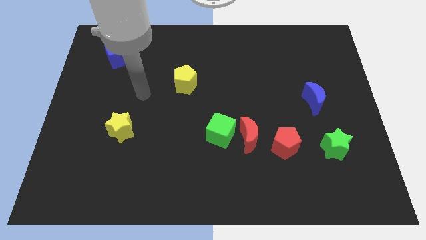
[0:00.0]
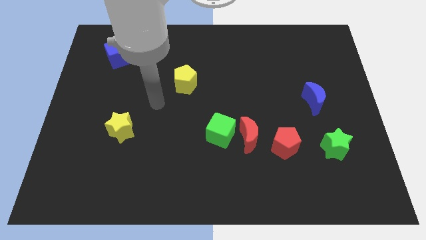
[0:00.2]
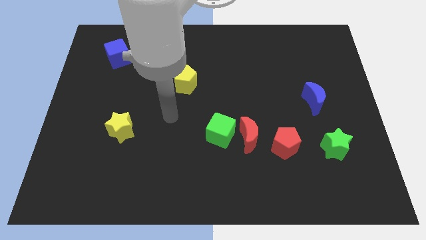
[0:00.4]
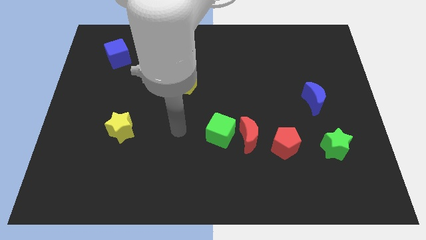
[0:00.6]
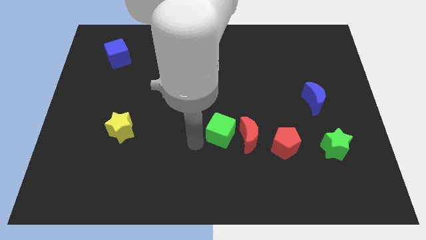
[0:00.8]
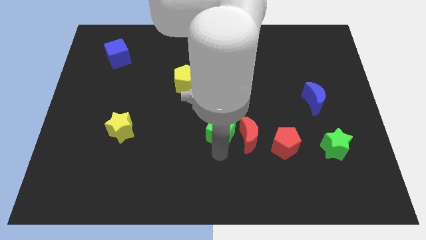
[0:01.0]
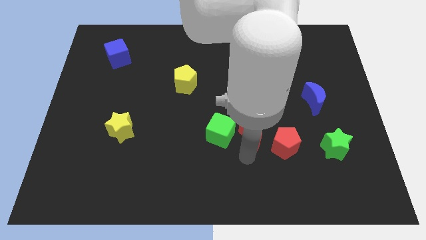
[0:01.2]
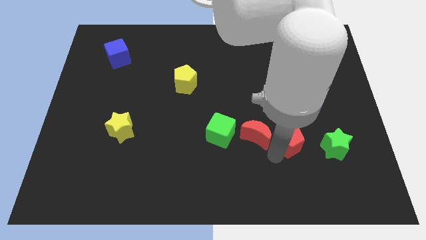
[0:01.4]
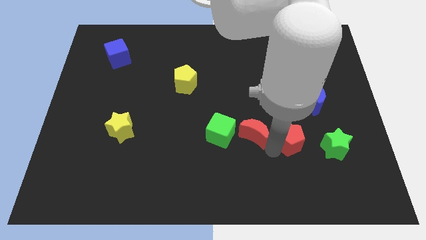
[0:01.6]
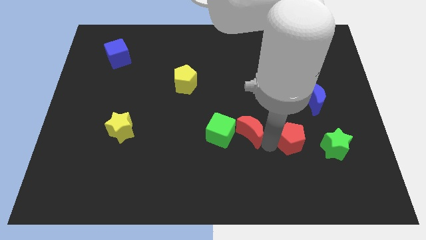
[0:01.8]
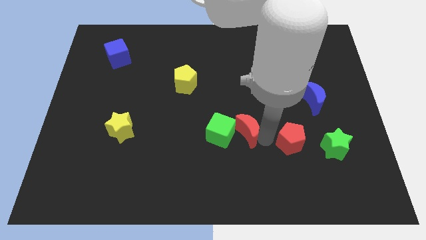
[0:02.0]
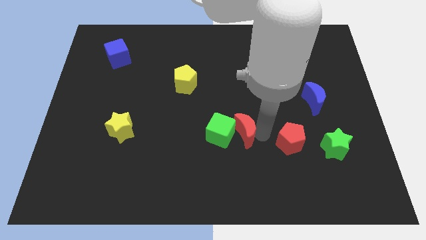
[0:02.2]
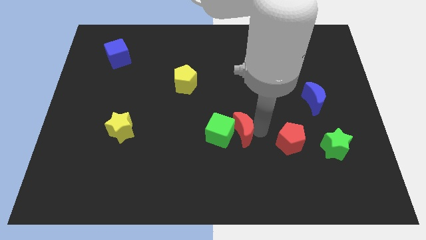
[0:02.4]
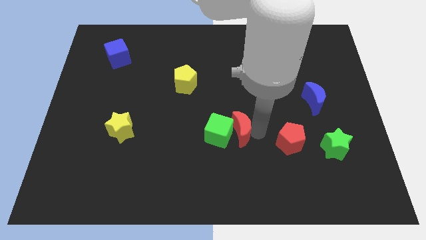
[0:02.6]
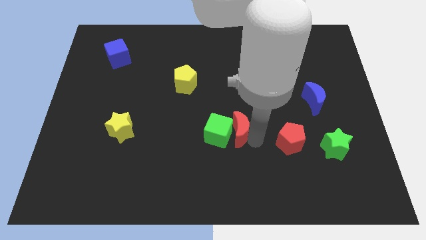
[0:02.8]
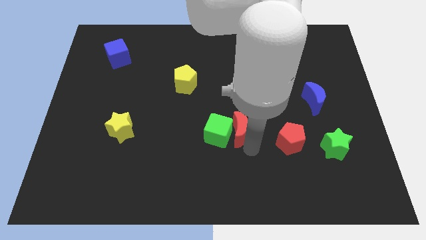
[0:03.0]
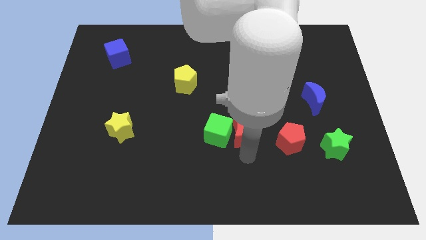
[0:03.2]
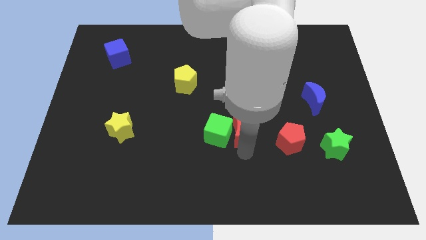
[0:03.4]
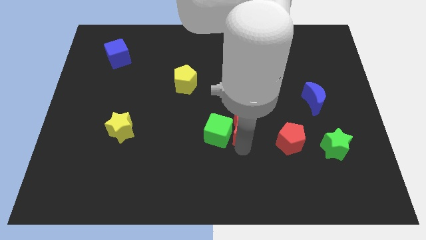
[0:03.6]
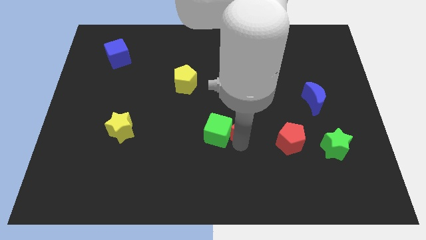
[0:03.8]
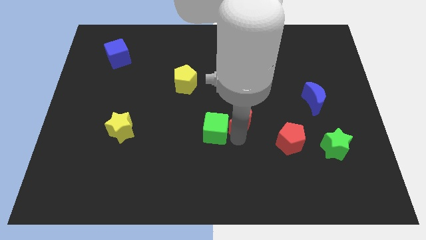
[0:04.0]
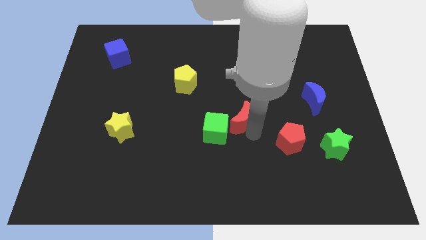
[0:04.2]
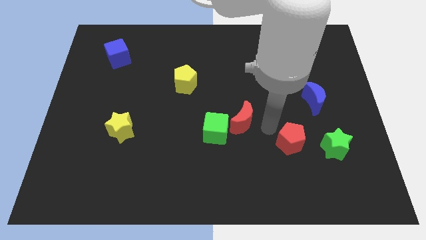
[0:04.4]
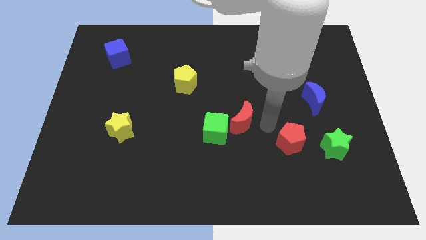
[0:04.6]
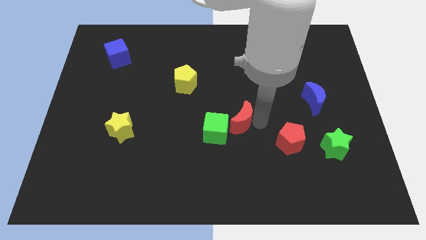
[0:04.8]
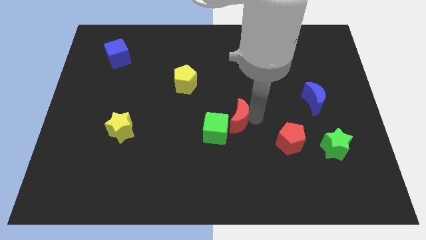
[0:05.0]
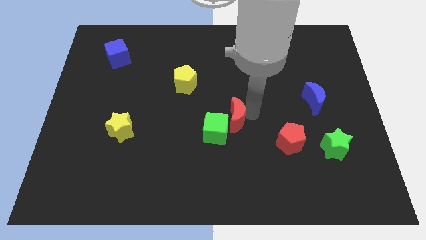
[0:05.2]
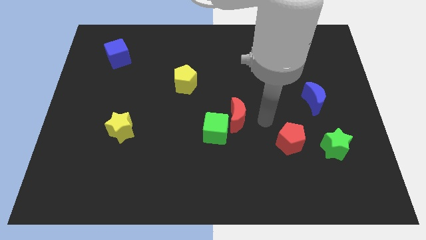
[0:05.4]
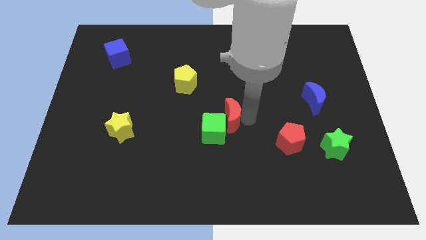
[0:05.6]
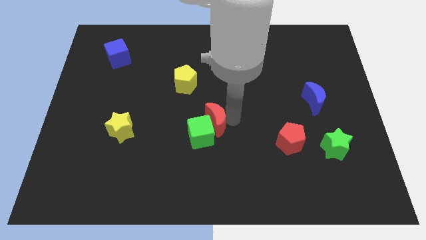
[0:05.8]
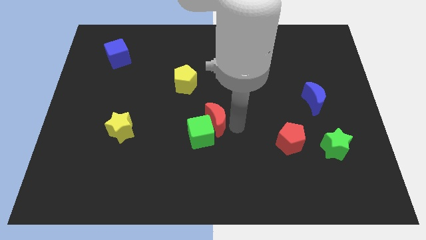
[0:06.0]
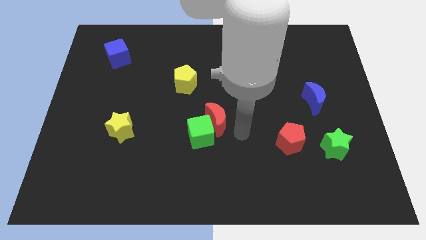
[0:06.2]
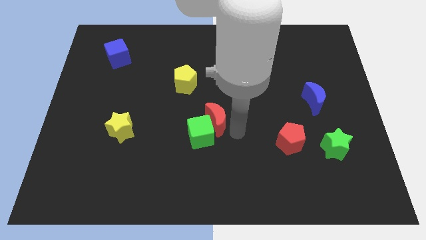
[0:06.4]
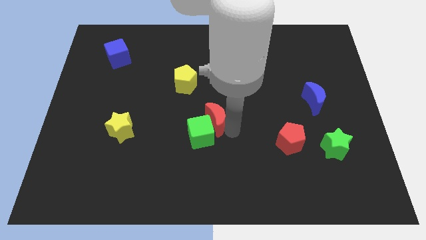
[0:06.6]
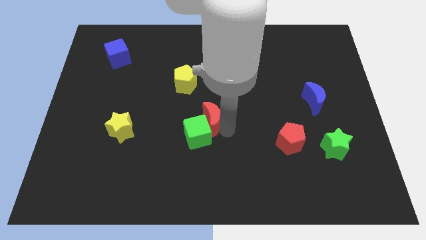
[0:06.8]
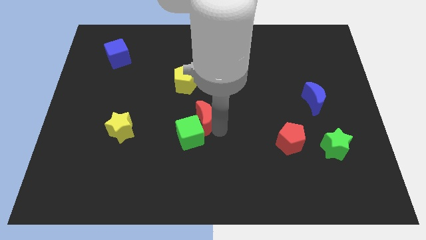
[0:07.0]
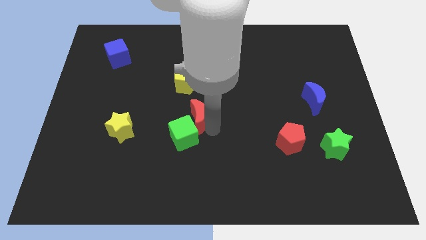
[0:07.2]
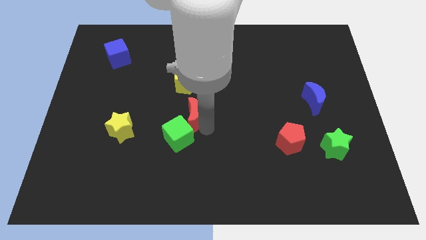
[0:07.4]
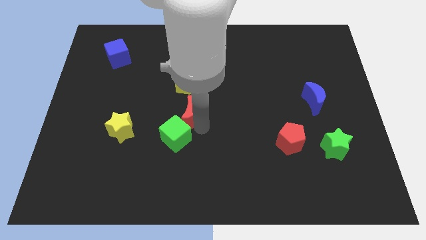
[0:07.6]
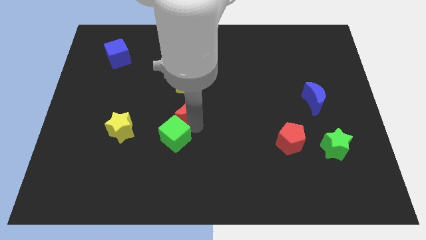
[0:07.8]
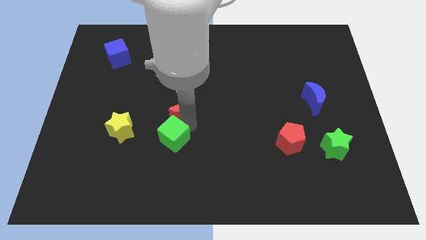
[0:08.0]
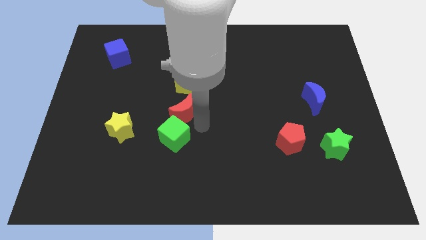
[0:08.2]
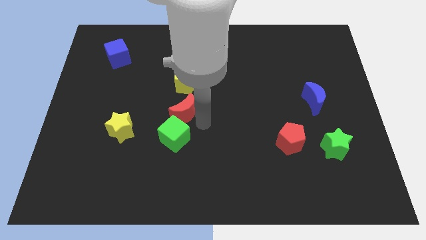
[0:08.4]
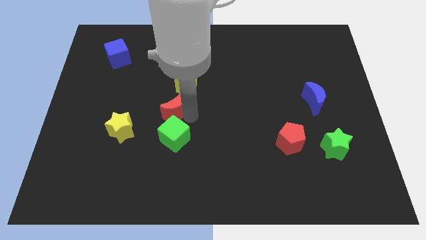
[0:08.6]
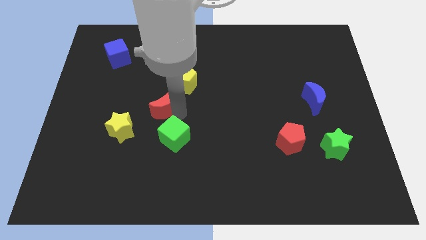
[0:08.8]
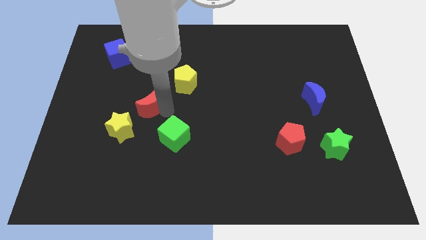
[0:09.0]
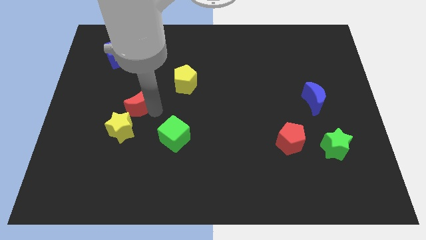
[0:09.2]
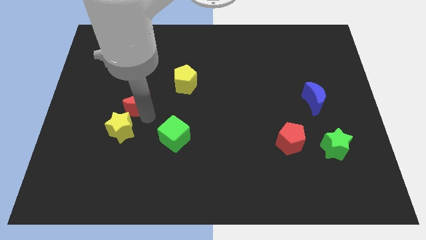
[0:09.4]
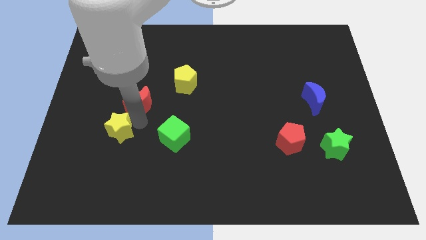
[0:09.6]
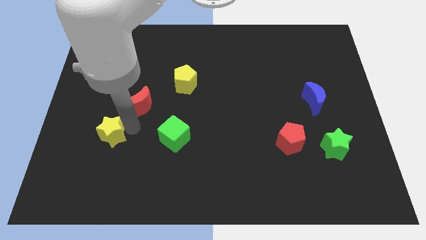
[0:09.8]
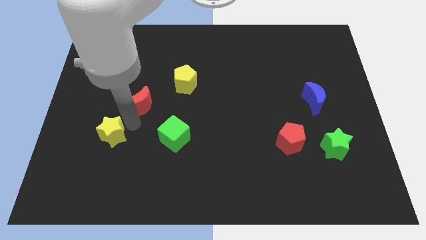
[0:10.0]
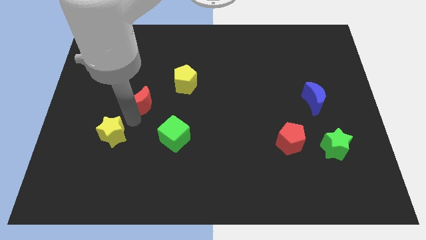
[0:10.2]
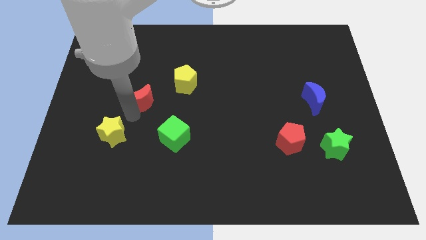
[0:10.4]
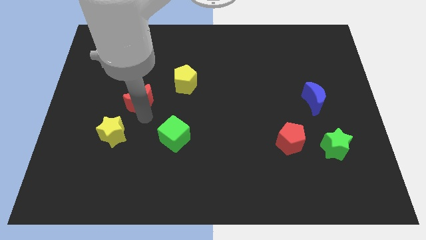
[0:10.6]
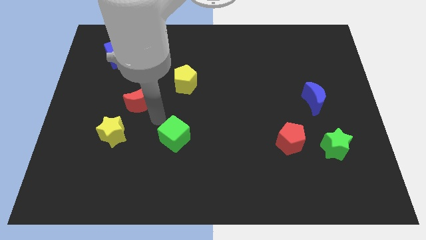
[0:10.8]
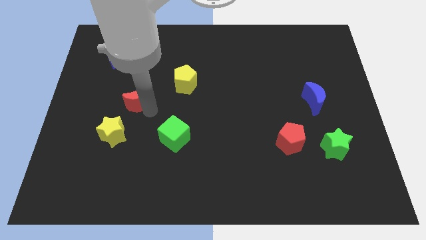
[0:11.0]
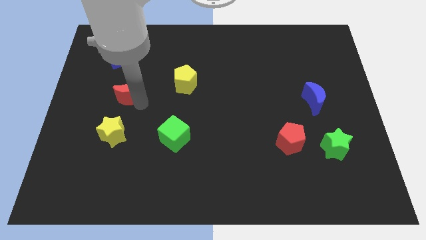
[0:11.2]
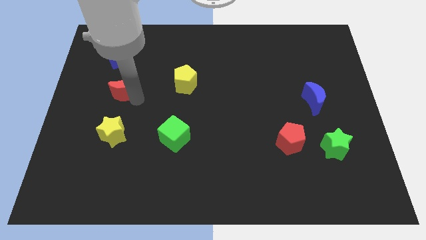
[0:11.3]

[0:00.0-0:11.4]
move the red moon to the bottom of the blue cube

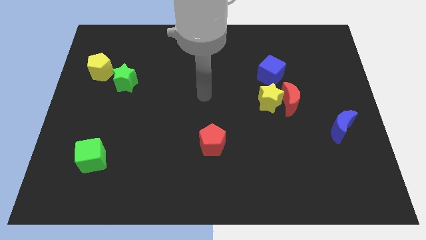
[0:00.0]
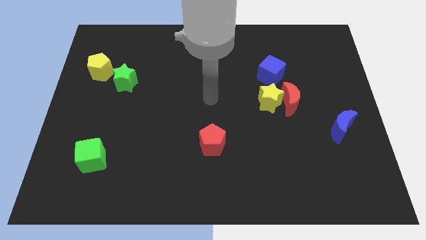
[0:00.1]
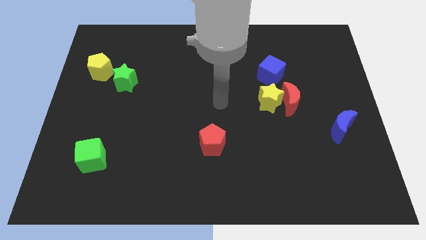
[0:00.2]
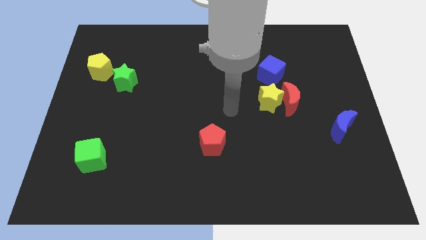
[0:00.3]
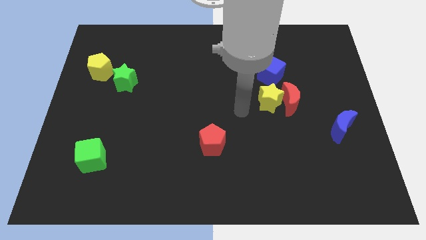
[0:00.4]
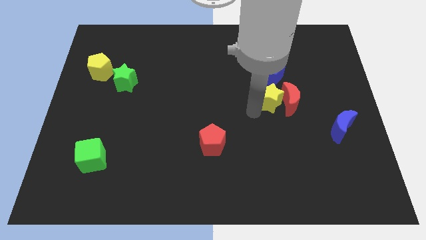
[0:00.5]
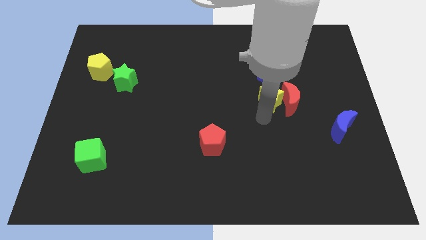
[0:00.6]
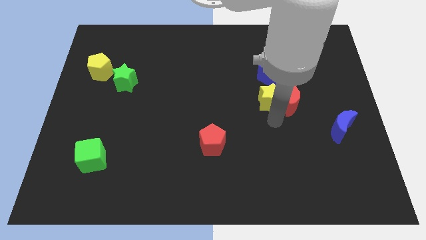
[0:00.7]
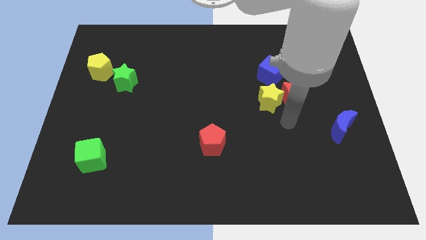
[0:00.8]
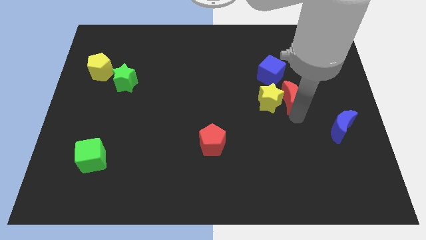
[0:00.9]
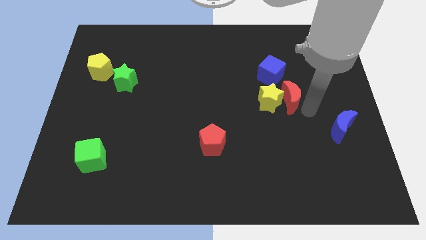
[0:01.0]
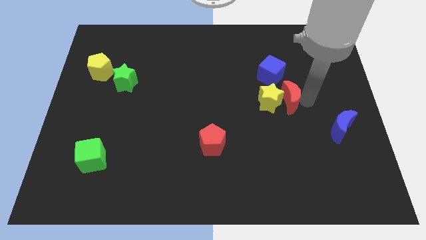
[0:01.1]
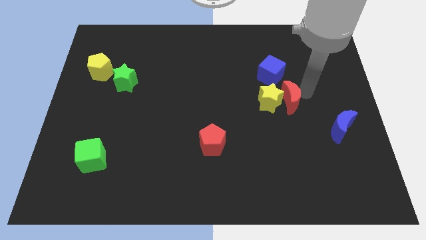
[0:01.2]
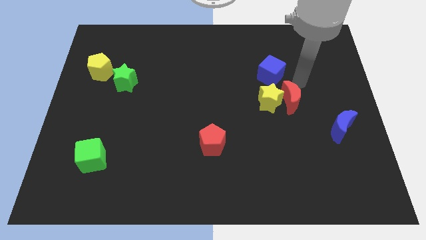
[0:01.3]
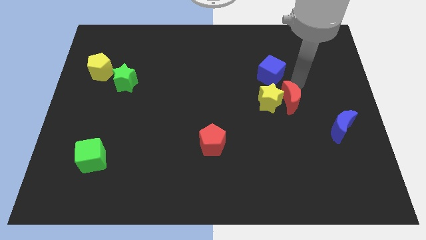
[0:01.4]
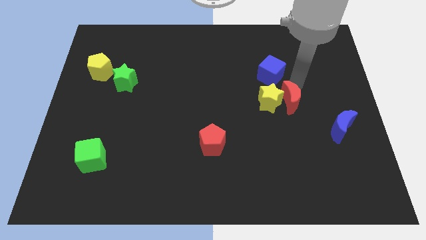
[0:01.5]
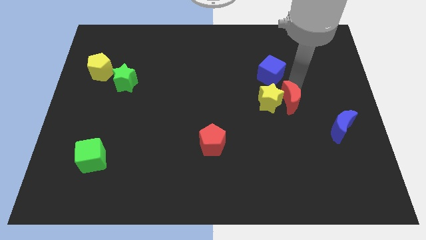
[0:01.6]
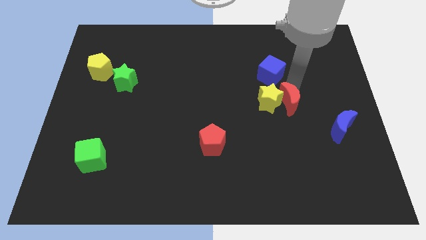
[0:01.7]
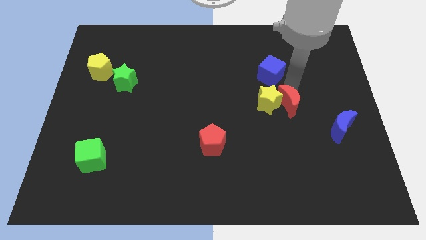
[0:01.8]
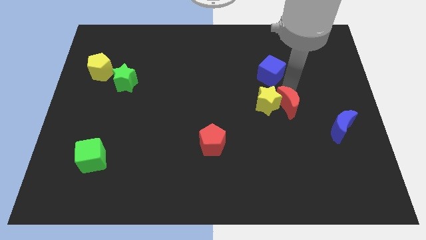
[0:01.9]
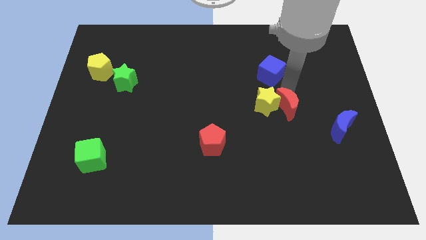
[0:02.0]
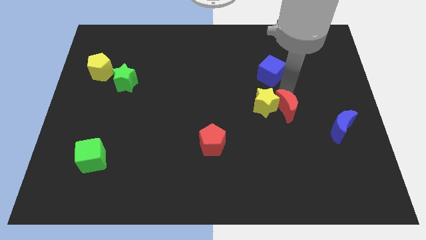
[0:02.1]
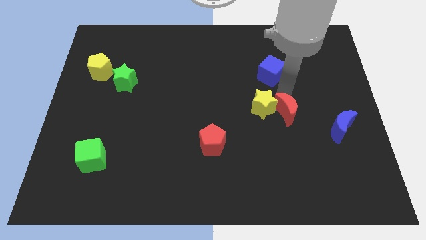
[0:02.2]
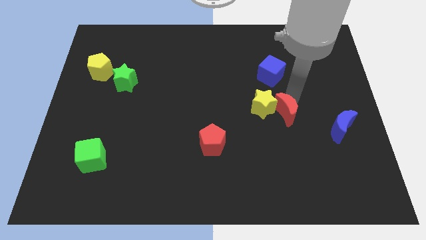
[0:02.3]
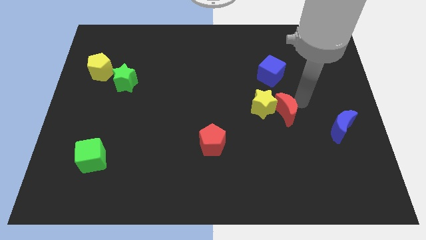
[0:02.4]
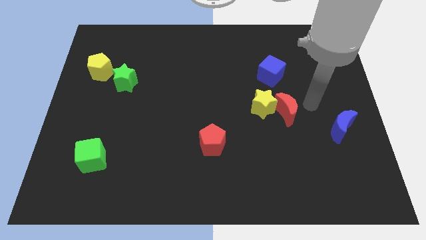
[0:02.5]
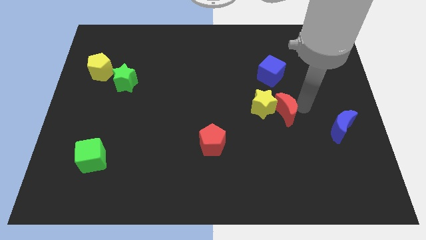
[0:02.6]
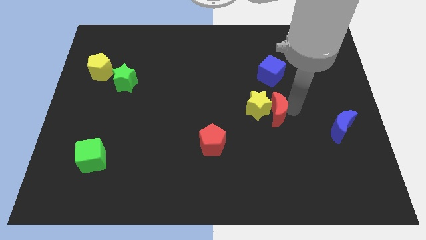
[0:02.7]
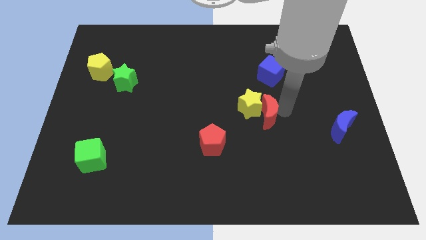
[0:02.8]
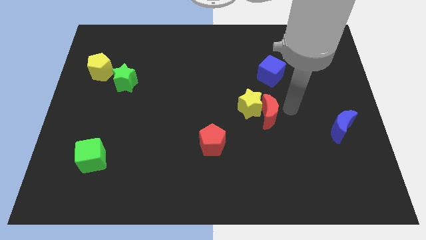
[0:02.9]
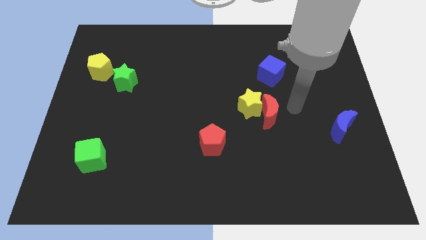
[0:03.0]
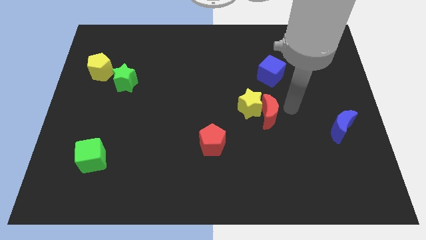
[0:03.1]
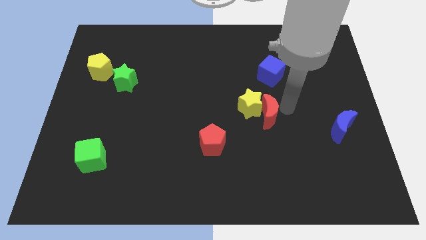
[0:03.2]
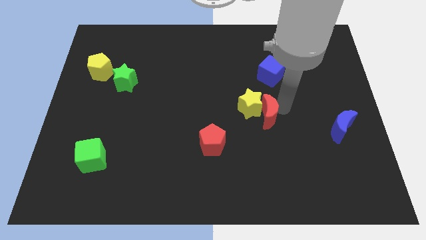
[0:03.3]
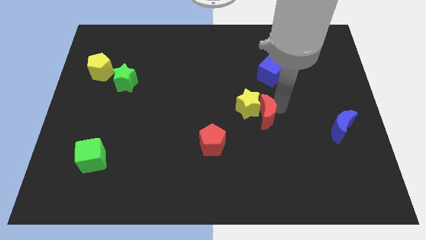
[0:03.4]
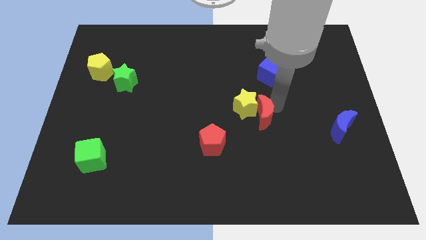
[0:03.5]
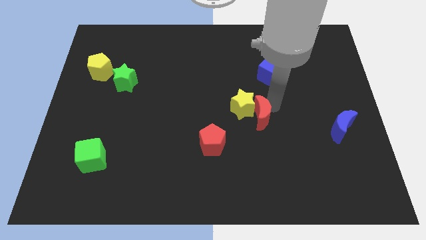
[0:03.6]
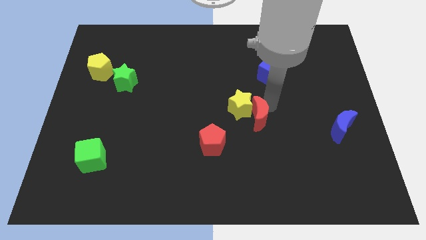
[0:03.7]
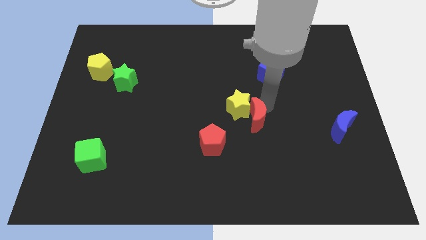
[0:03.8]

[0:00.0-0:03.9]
put the red moon to the top right side of the red pentagon
